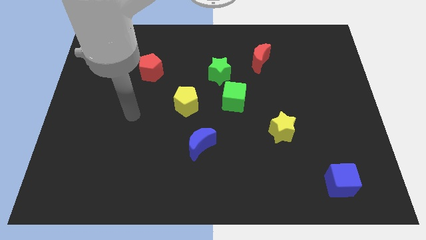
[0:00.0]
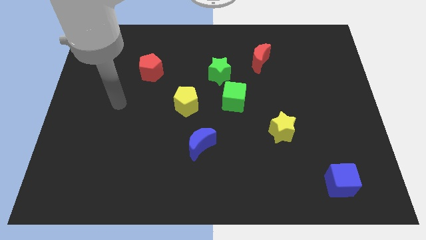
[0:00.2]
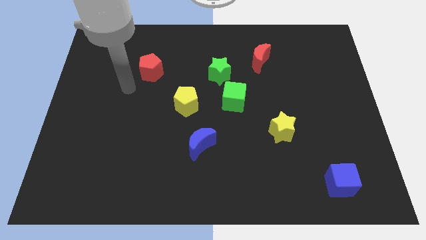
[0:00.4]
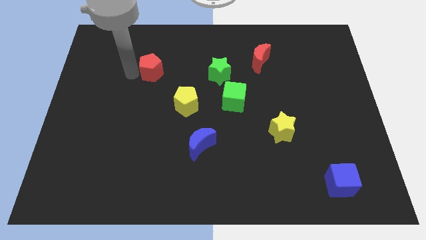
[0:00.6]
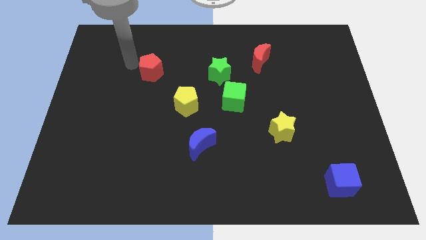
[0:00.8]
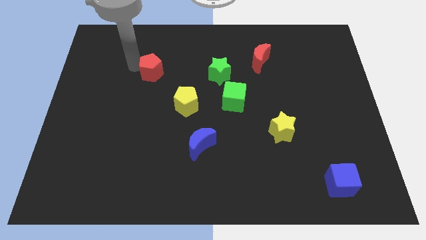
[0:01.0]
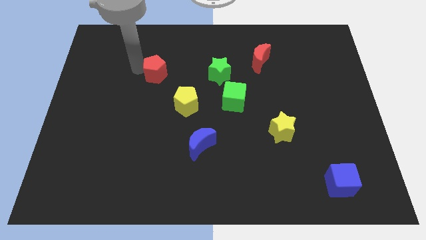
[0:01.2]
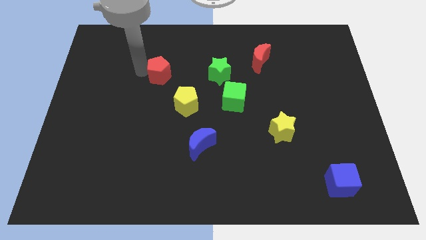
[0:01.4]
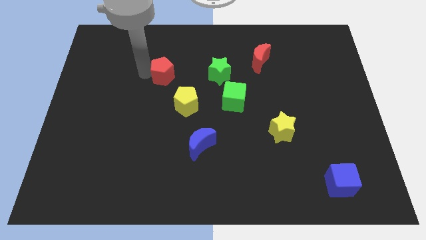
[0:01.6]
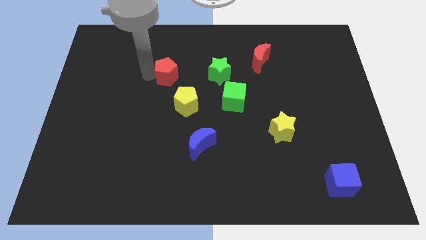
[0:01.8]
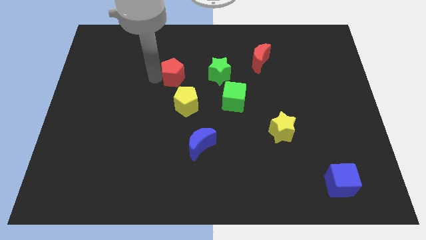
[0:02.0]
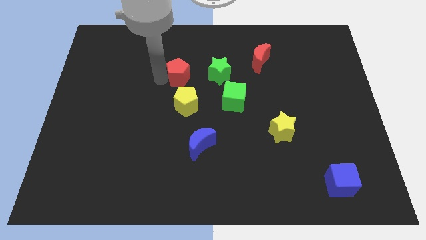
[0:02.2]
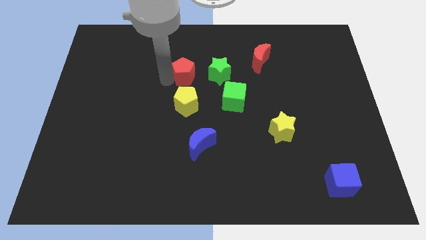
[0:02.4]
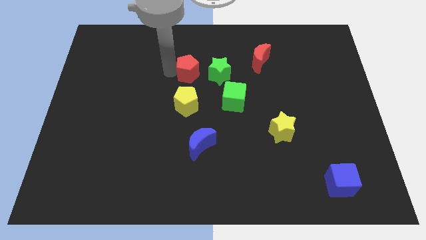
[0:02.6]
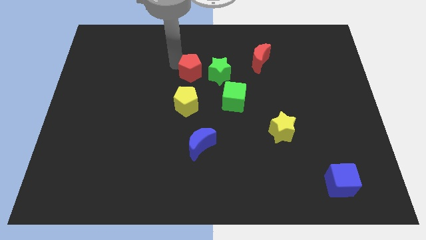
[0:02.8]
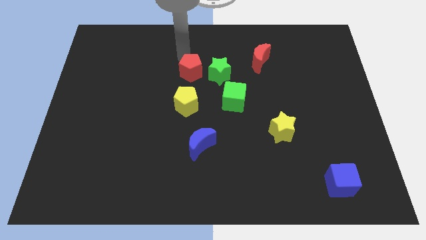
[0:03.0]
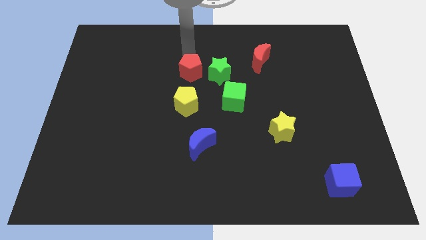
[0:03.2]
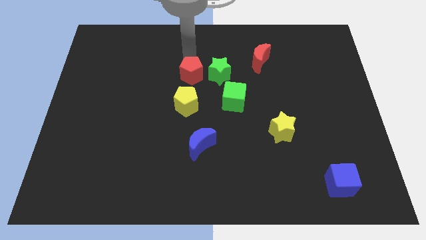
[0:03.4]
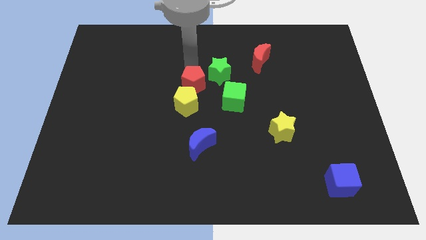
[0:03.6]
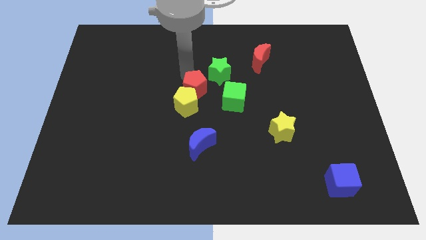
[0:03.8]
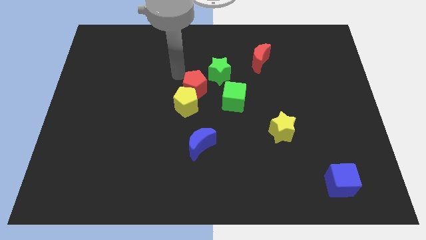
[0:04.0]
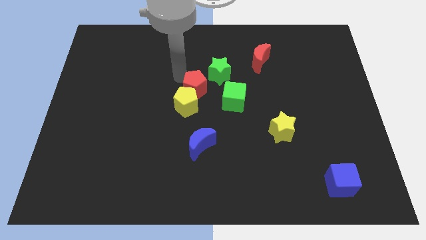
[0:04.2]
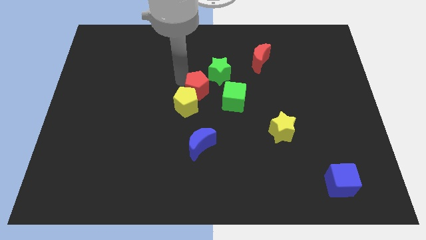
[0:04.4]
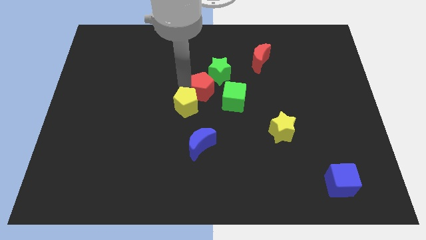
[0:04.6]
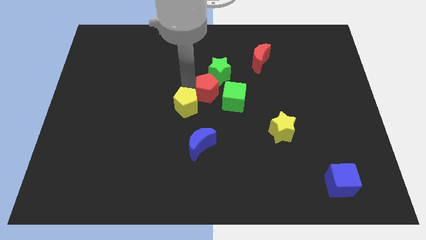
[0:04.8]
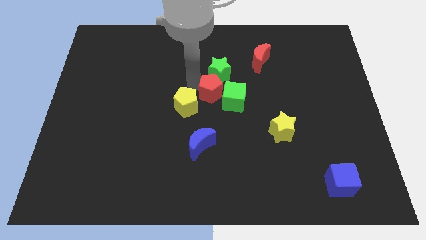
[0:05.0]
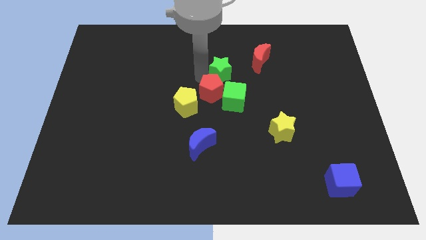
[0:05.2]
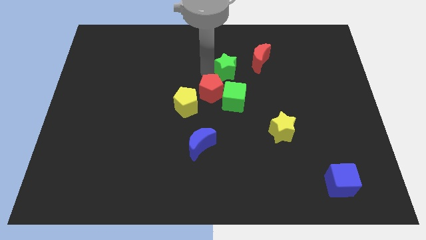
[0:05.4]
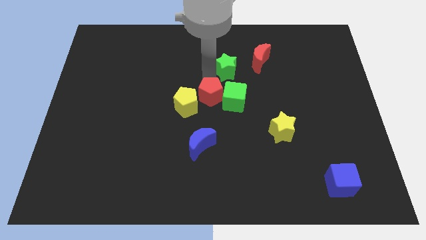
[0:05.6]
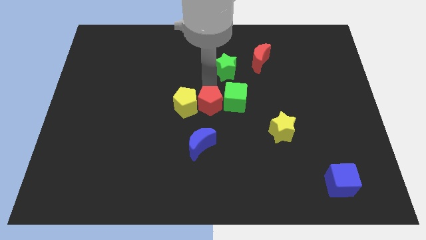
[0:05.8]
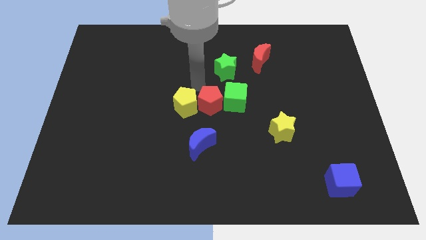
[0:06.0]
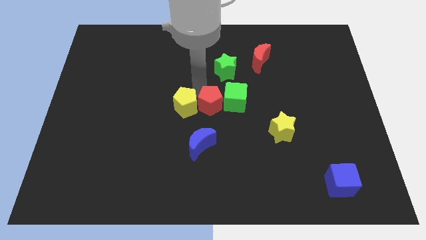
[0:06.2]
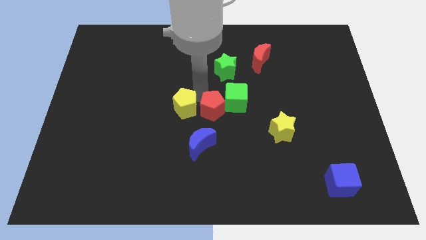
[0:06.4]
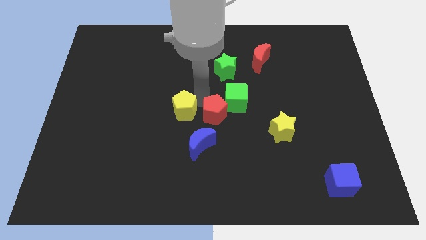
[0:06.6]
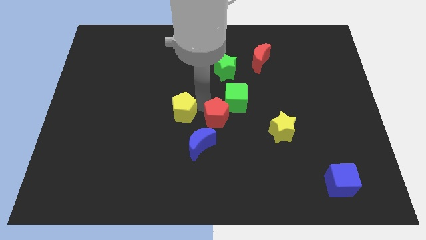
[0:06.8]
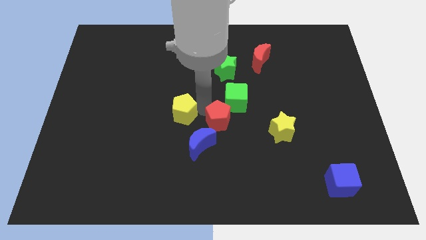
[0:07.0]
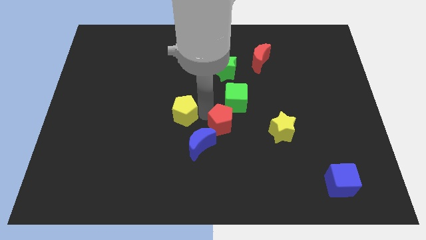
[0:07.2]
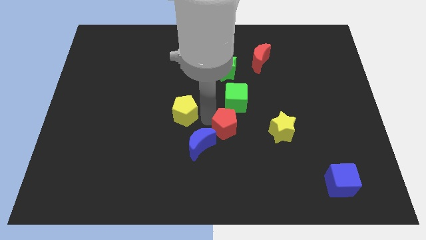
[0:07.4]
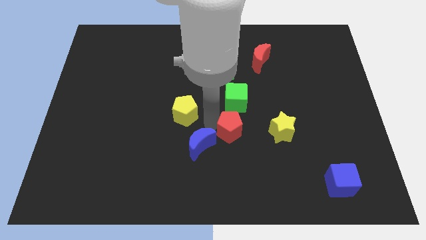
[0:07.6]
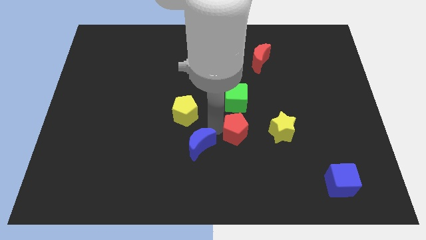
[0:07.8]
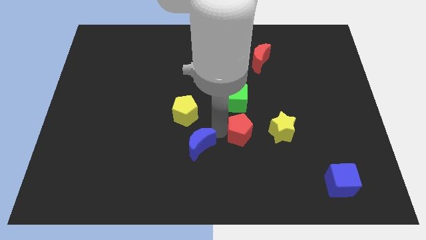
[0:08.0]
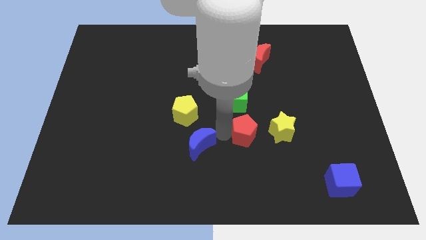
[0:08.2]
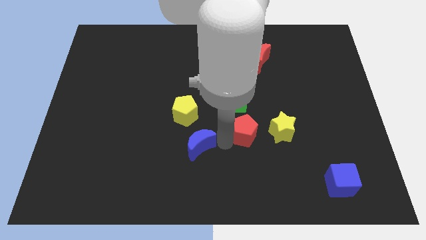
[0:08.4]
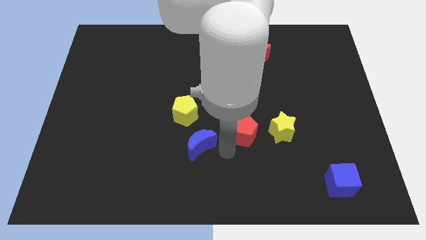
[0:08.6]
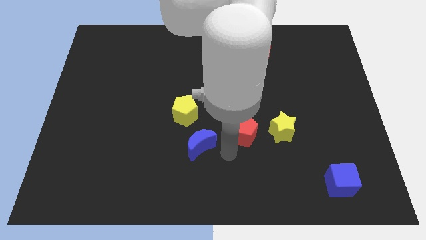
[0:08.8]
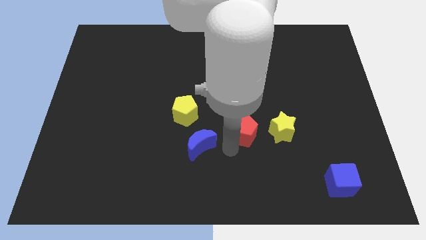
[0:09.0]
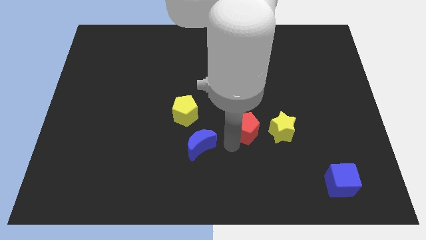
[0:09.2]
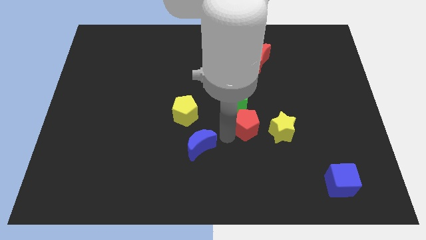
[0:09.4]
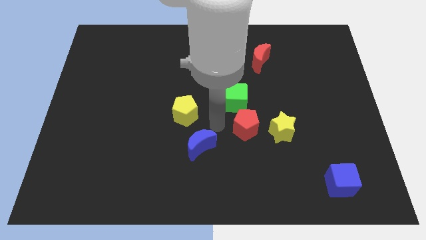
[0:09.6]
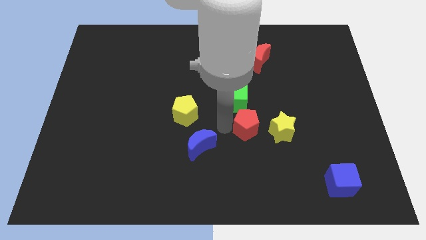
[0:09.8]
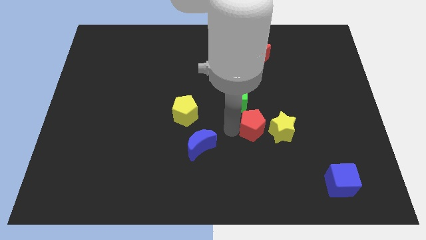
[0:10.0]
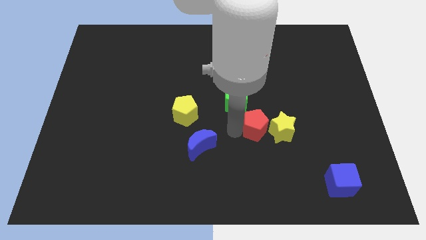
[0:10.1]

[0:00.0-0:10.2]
move the red pentagon next to the yellow star

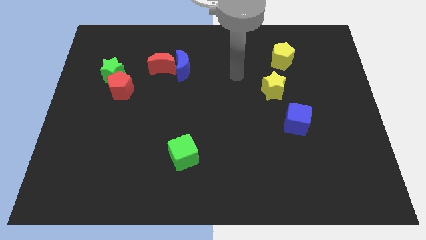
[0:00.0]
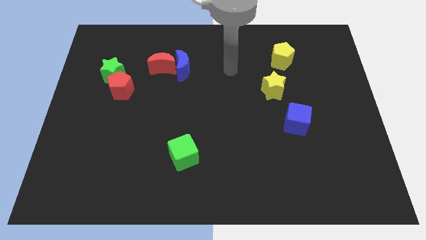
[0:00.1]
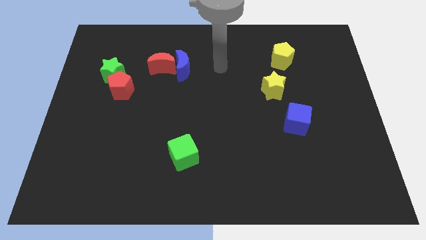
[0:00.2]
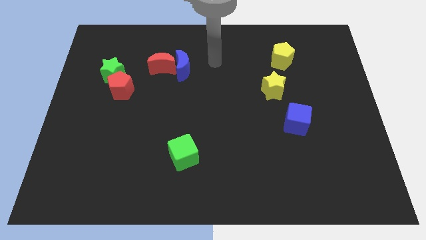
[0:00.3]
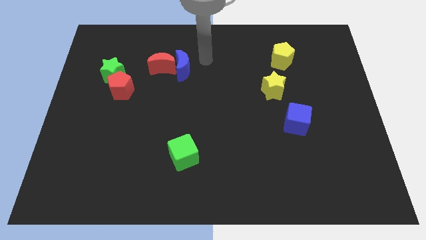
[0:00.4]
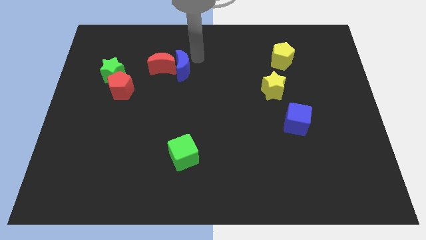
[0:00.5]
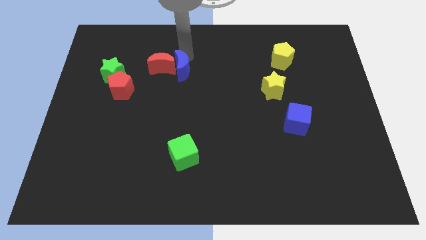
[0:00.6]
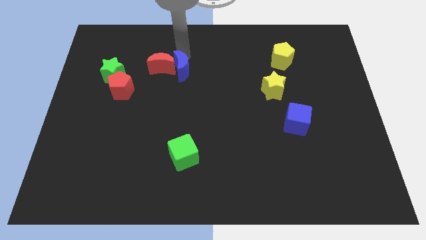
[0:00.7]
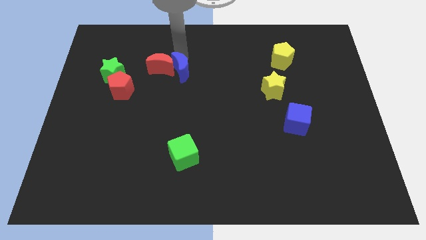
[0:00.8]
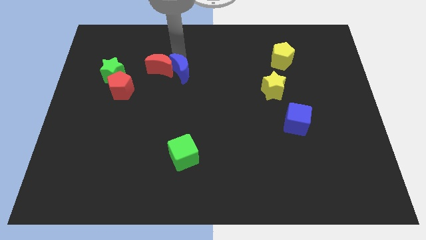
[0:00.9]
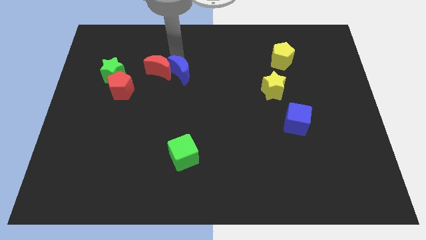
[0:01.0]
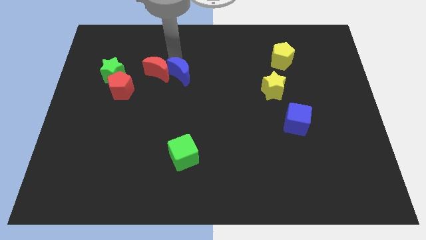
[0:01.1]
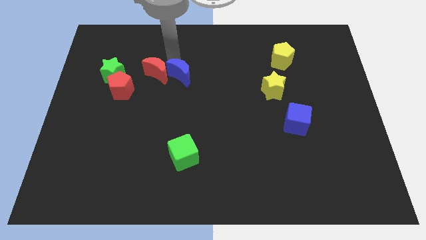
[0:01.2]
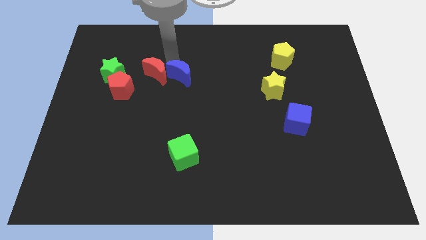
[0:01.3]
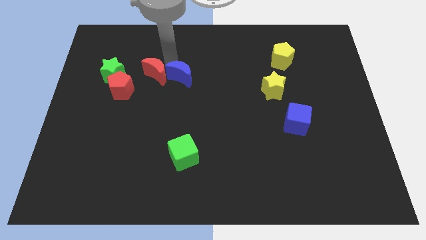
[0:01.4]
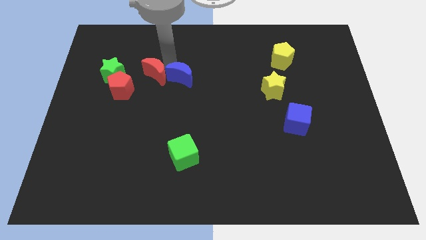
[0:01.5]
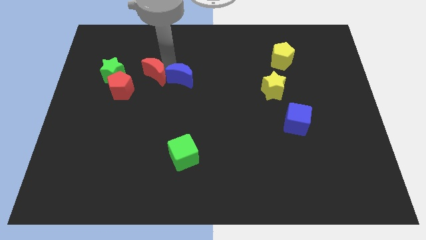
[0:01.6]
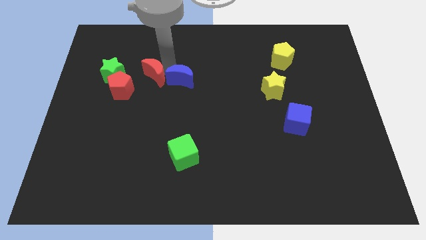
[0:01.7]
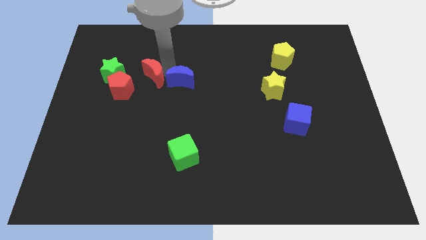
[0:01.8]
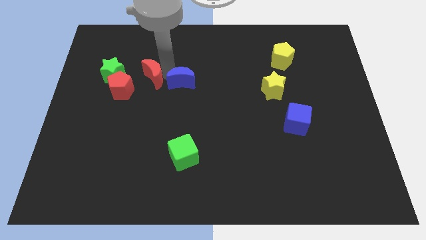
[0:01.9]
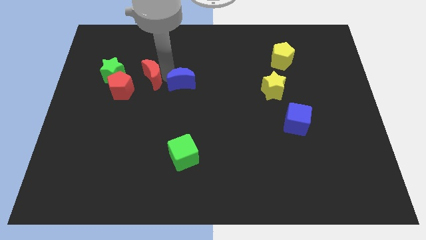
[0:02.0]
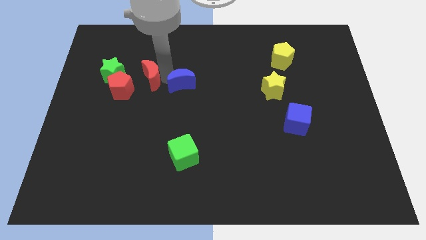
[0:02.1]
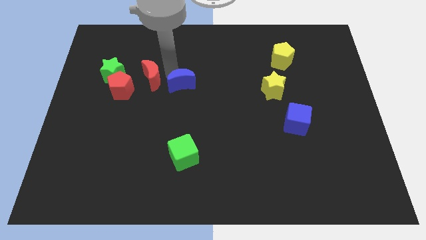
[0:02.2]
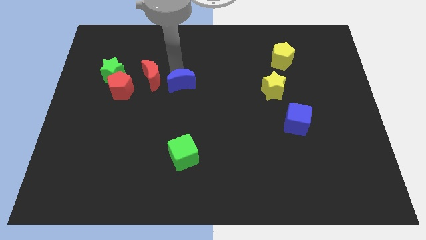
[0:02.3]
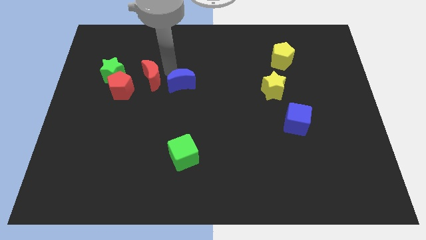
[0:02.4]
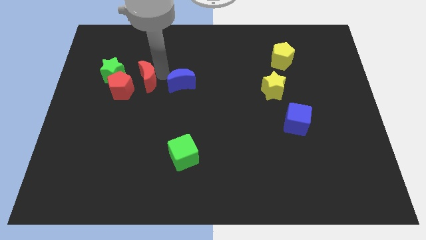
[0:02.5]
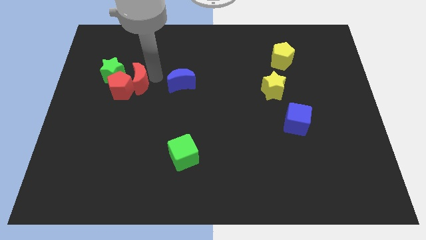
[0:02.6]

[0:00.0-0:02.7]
slide the red moon to the red pentagon
